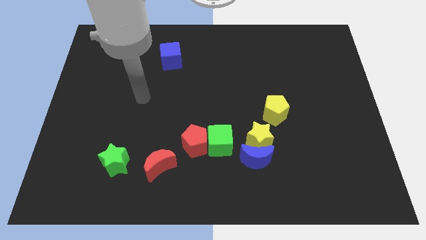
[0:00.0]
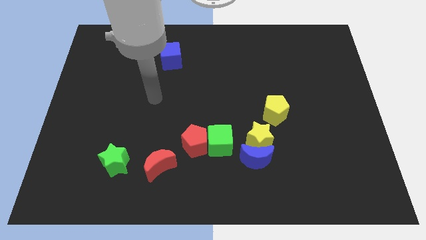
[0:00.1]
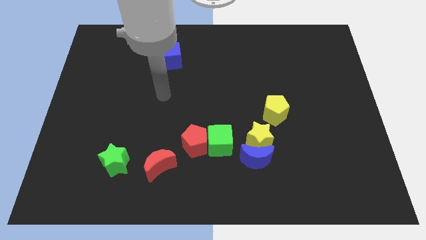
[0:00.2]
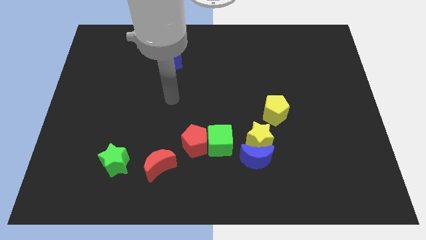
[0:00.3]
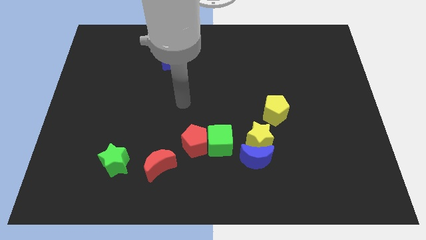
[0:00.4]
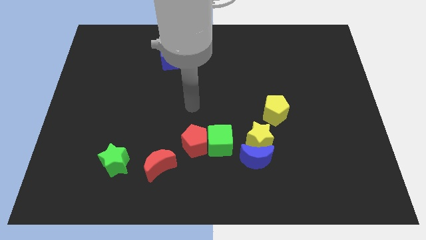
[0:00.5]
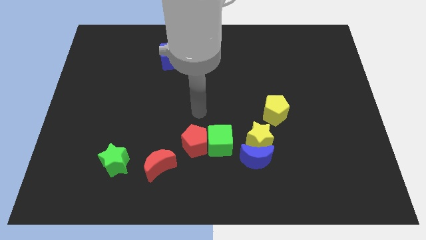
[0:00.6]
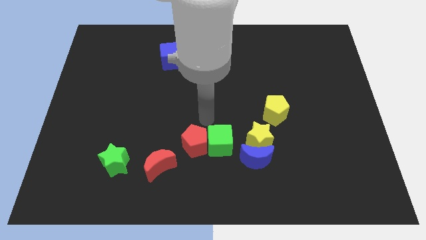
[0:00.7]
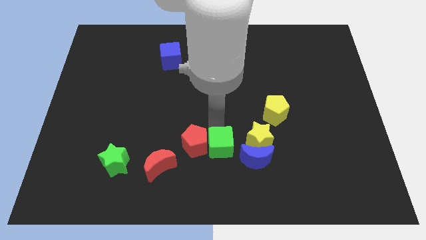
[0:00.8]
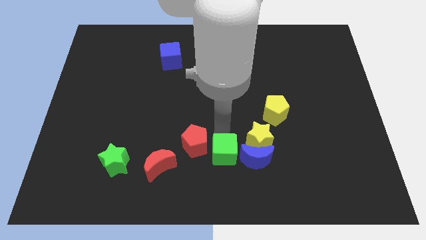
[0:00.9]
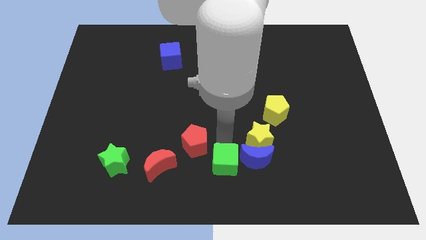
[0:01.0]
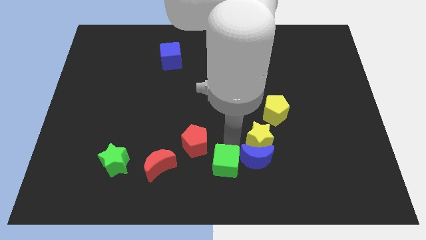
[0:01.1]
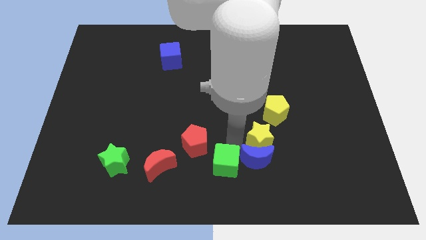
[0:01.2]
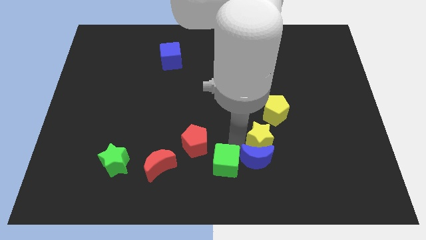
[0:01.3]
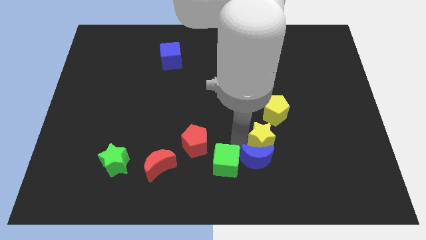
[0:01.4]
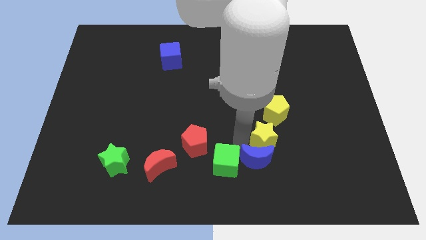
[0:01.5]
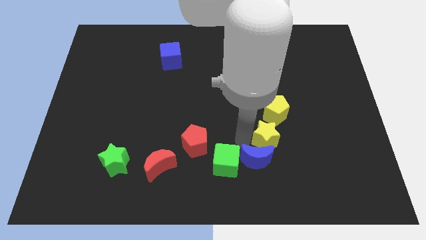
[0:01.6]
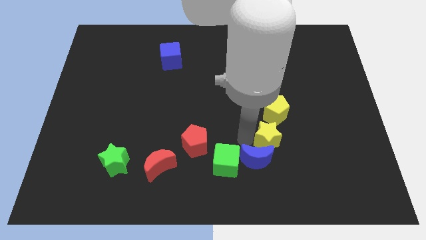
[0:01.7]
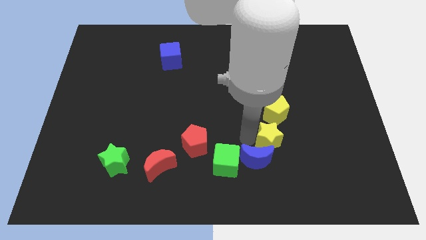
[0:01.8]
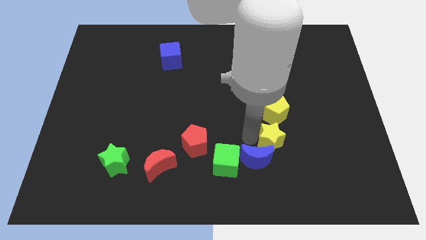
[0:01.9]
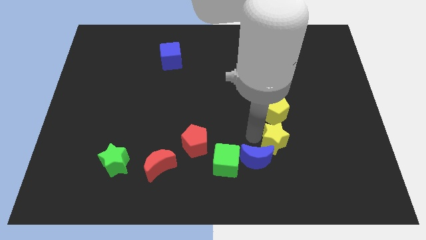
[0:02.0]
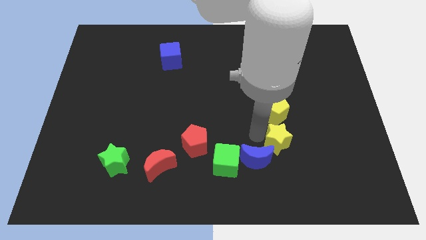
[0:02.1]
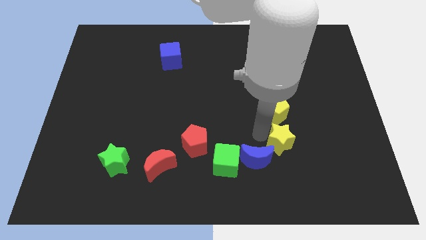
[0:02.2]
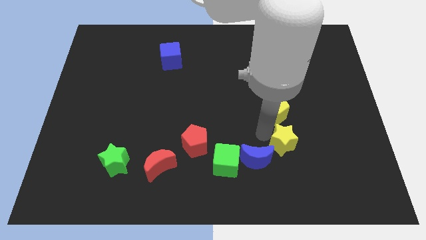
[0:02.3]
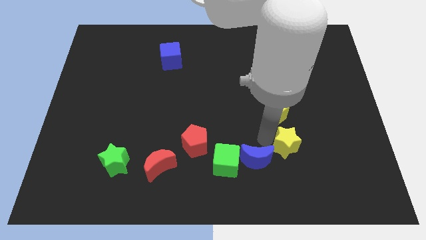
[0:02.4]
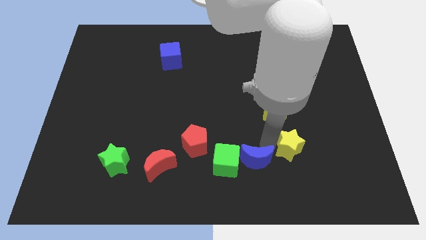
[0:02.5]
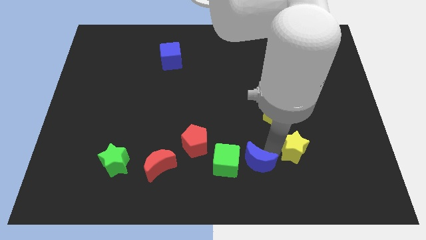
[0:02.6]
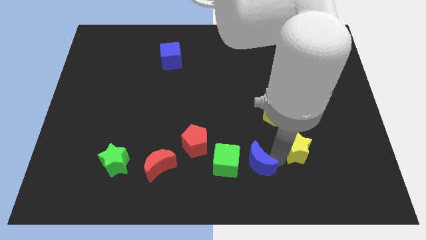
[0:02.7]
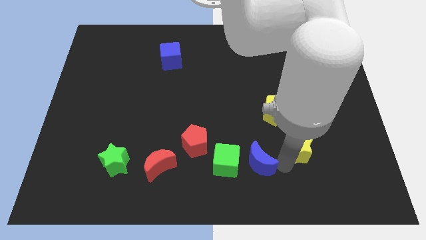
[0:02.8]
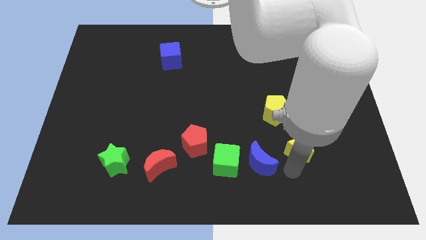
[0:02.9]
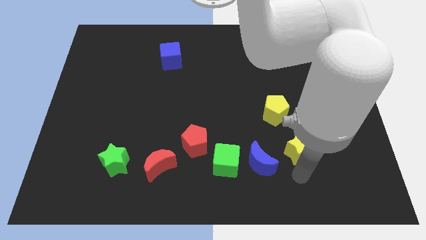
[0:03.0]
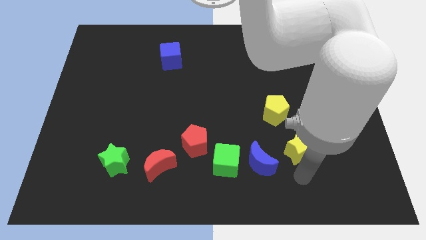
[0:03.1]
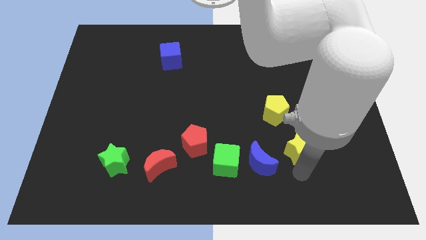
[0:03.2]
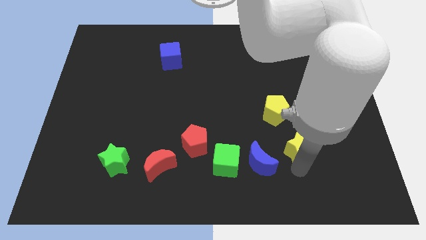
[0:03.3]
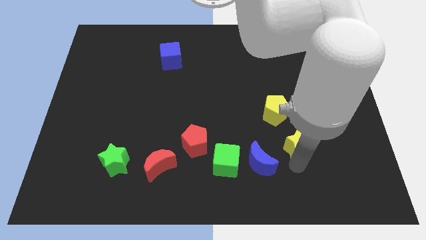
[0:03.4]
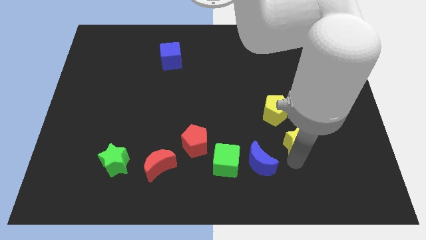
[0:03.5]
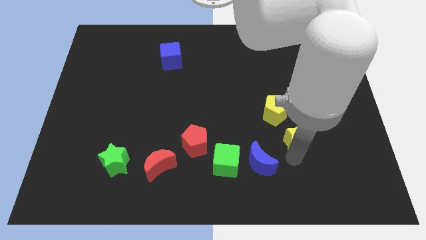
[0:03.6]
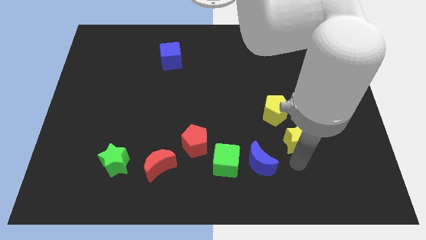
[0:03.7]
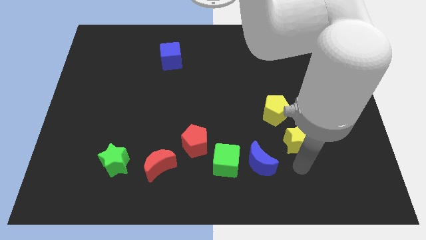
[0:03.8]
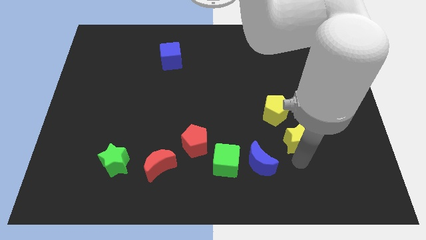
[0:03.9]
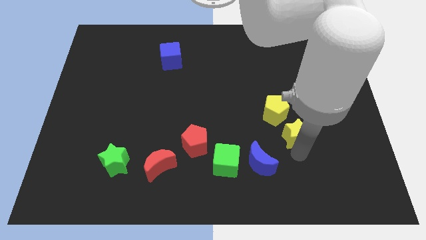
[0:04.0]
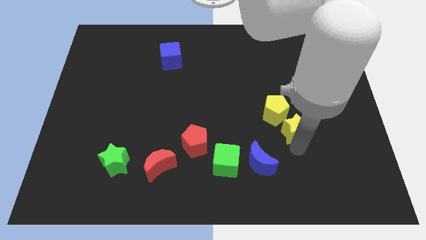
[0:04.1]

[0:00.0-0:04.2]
push the yellow star upwards and then right somewhat

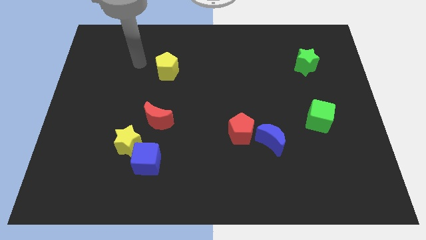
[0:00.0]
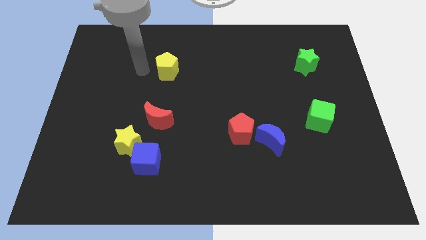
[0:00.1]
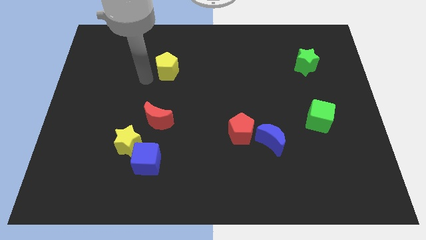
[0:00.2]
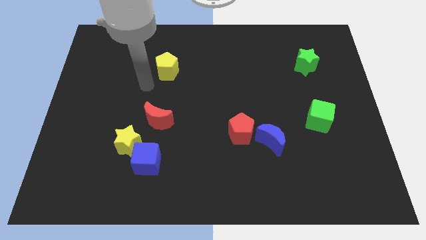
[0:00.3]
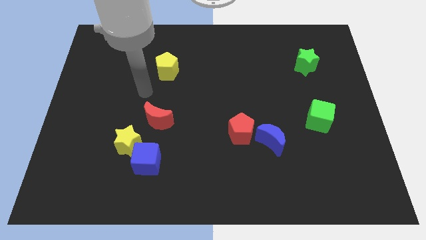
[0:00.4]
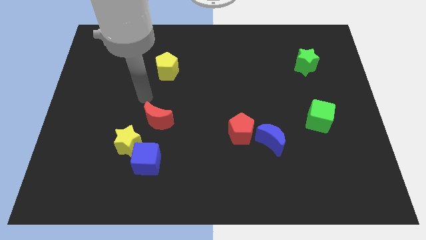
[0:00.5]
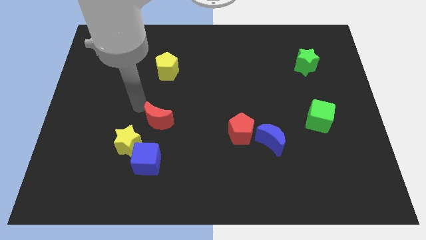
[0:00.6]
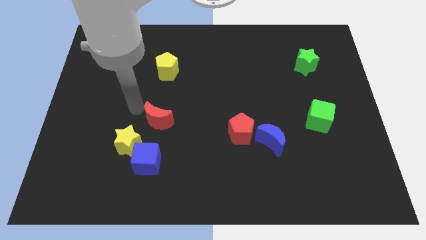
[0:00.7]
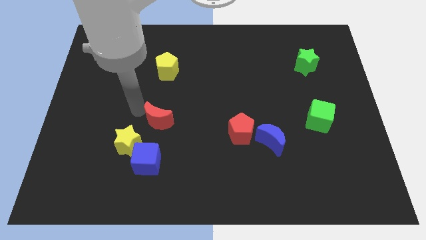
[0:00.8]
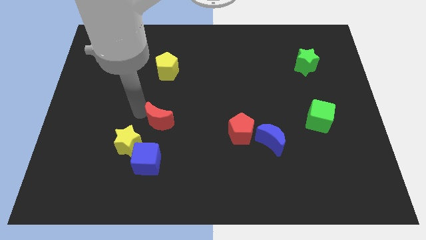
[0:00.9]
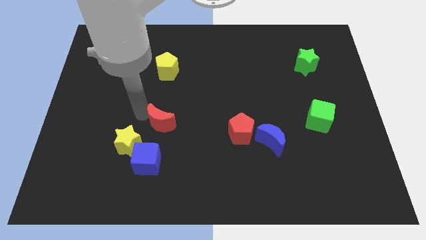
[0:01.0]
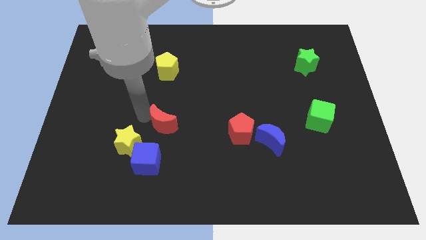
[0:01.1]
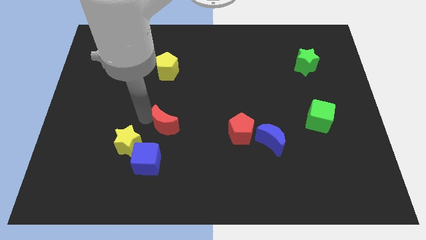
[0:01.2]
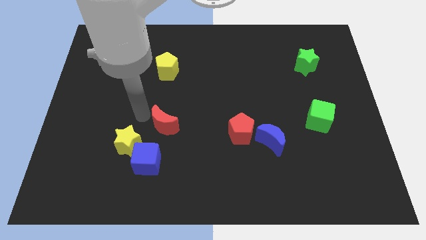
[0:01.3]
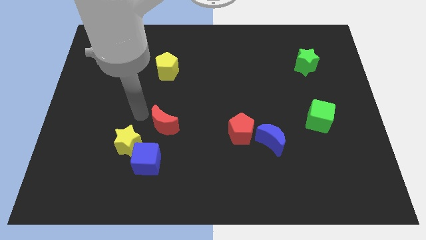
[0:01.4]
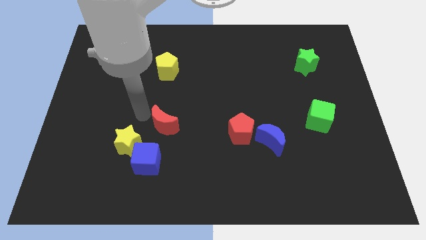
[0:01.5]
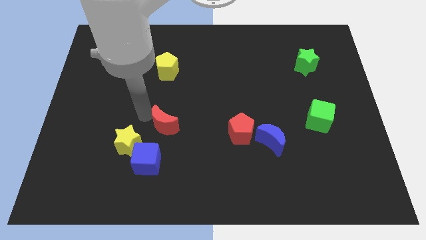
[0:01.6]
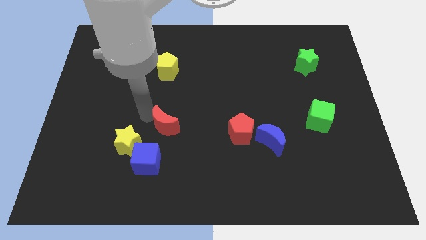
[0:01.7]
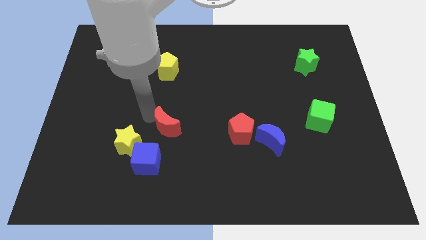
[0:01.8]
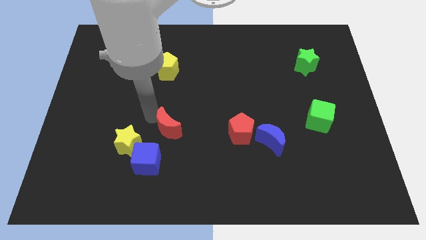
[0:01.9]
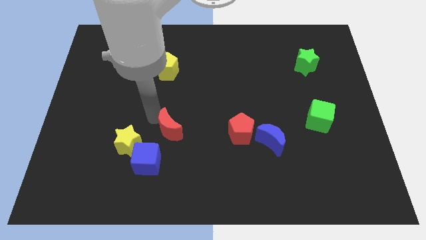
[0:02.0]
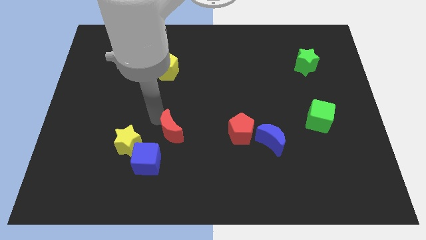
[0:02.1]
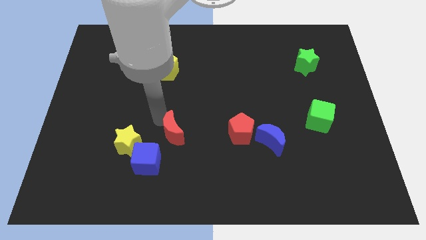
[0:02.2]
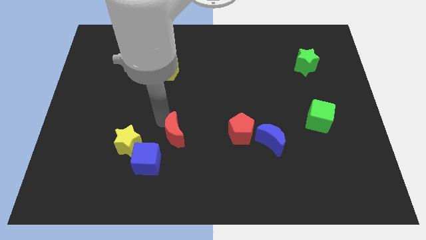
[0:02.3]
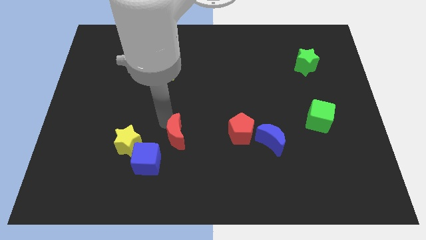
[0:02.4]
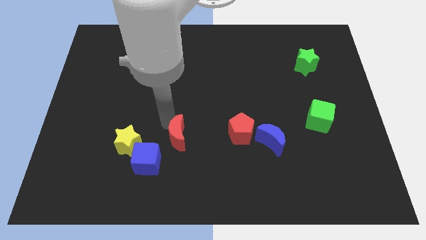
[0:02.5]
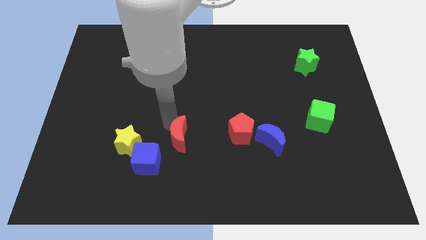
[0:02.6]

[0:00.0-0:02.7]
slide the red moon downwards and then to the right somewhat

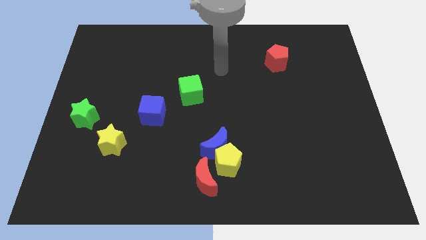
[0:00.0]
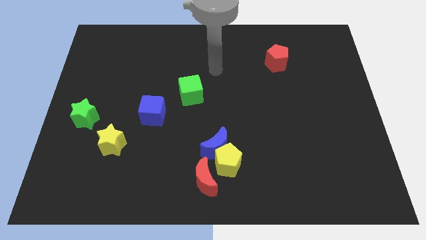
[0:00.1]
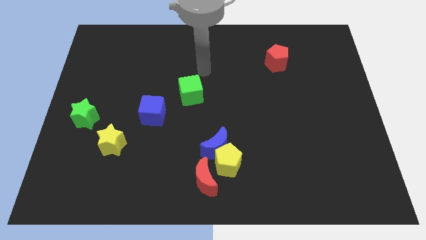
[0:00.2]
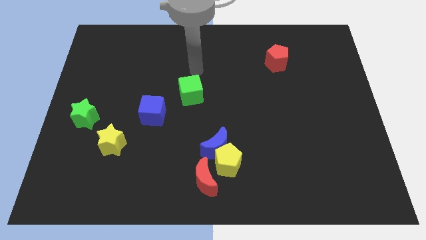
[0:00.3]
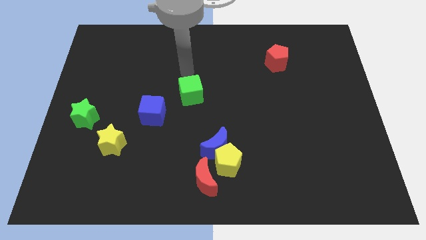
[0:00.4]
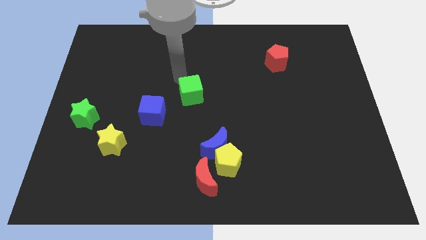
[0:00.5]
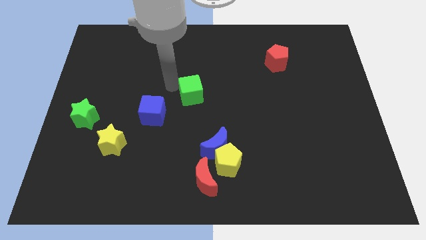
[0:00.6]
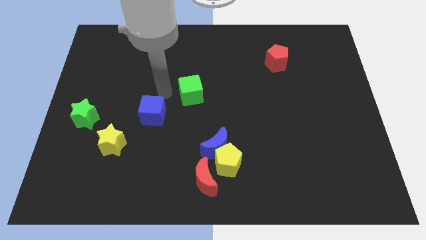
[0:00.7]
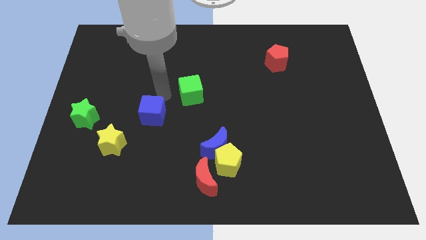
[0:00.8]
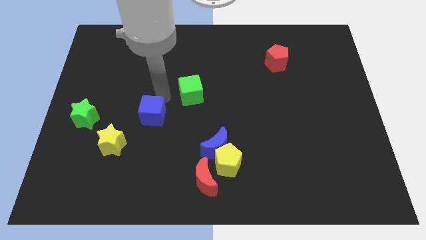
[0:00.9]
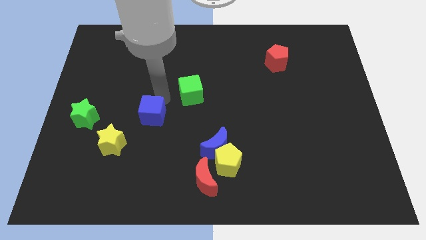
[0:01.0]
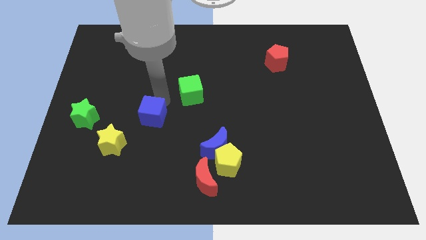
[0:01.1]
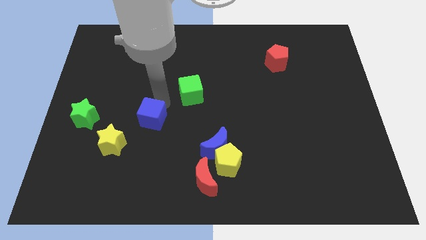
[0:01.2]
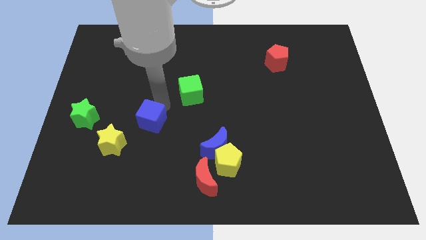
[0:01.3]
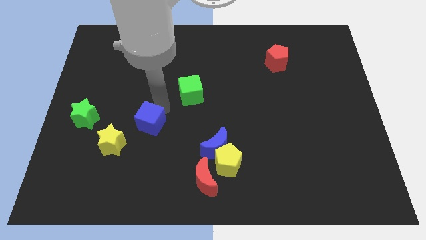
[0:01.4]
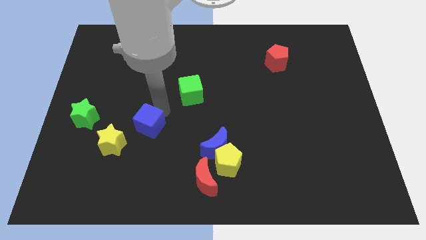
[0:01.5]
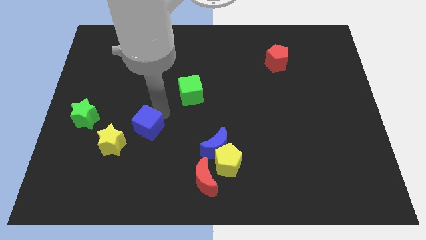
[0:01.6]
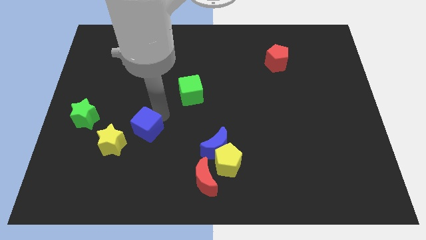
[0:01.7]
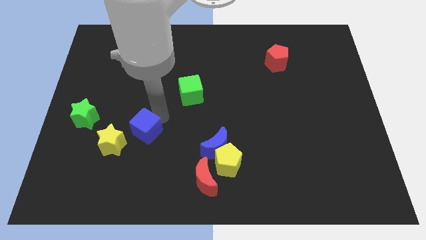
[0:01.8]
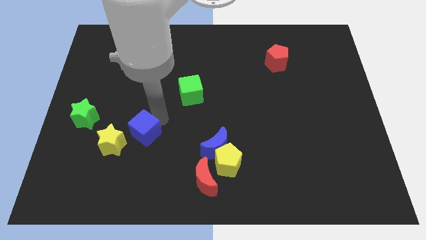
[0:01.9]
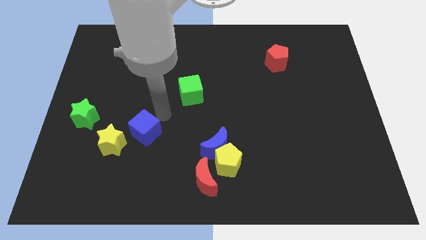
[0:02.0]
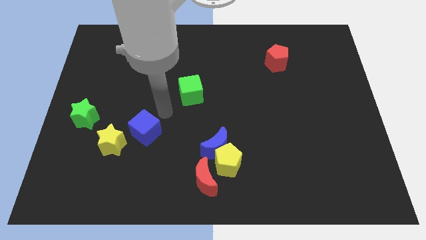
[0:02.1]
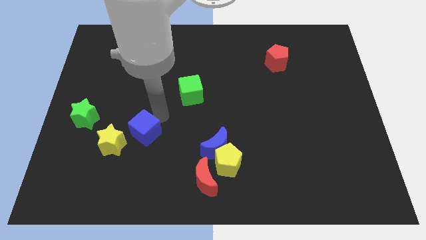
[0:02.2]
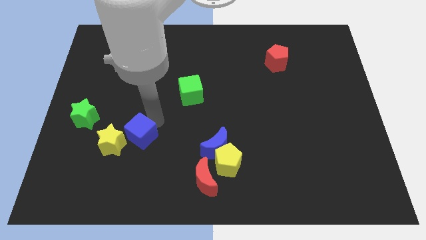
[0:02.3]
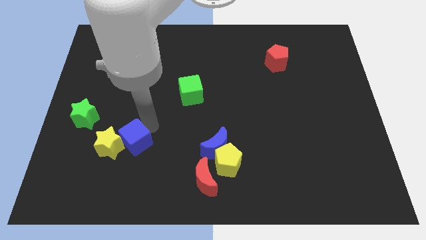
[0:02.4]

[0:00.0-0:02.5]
slightly slide the blue cube diagonally down and left
